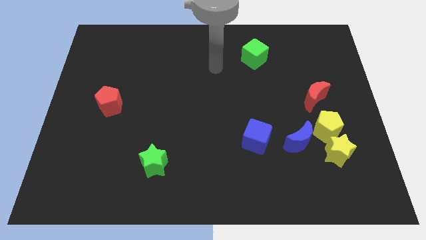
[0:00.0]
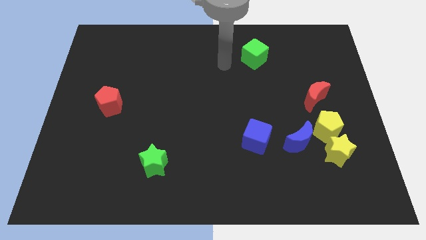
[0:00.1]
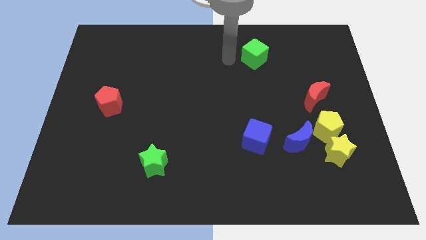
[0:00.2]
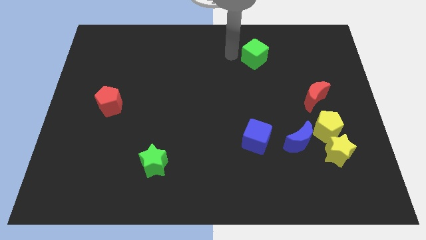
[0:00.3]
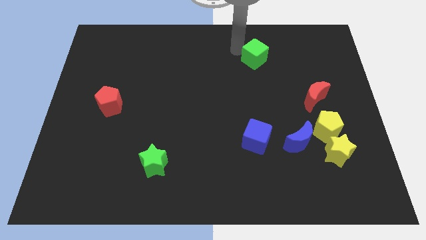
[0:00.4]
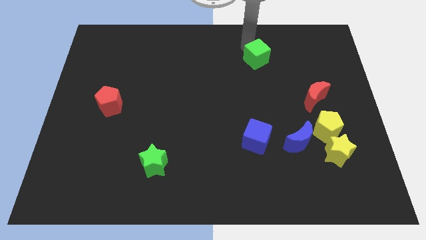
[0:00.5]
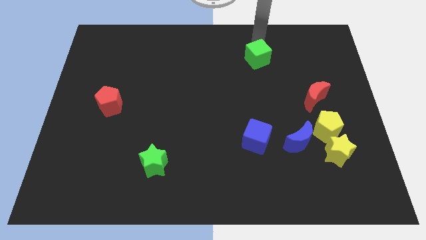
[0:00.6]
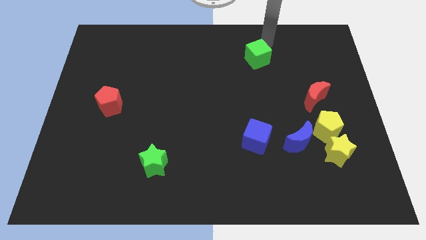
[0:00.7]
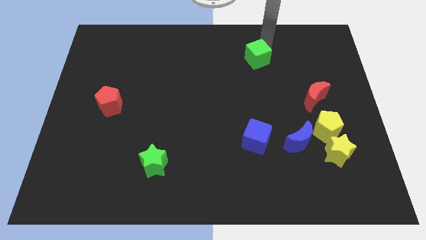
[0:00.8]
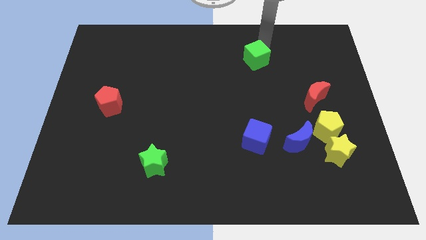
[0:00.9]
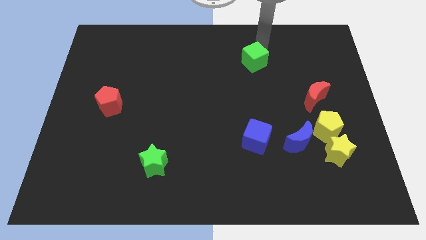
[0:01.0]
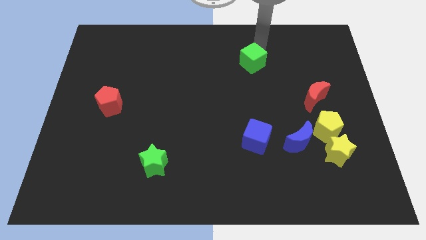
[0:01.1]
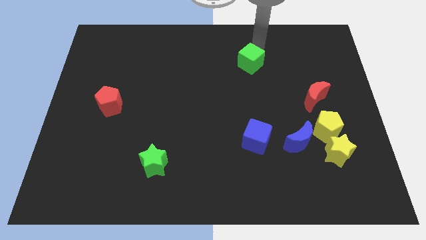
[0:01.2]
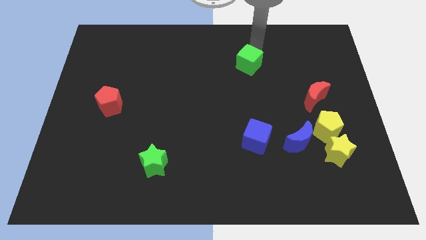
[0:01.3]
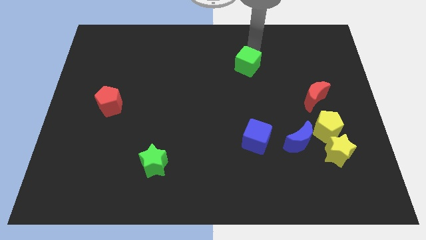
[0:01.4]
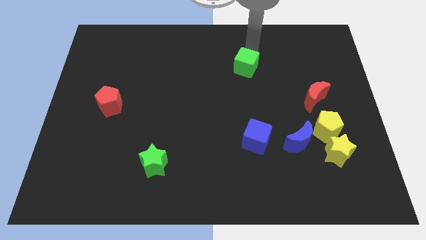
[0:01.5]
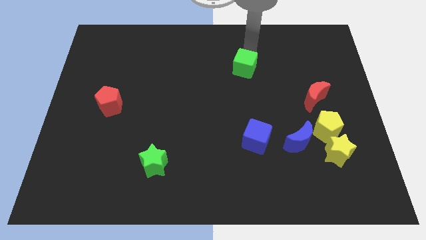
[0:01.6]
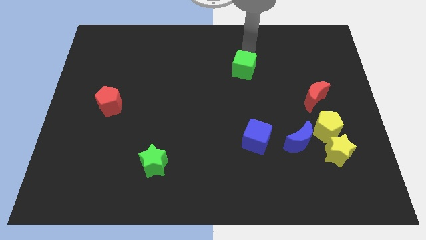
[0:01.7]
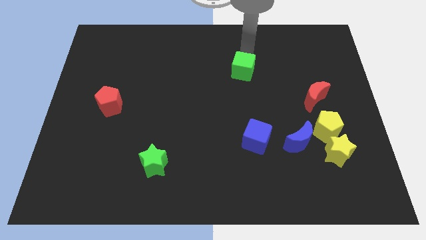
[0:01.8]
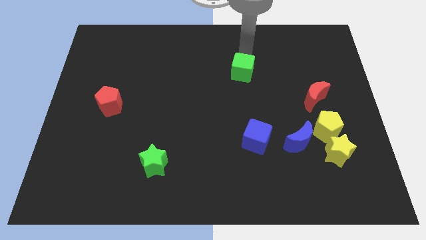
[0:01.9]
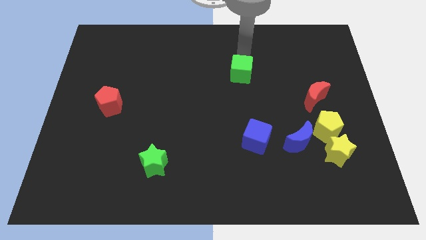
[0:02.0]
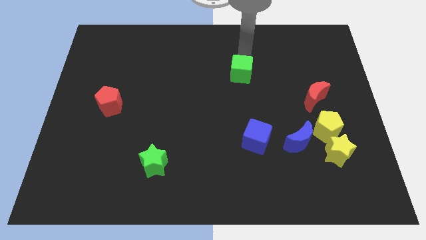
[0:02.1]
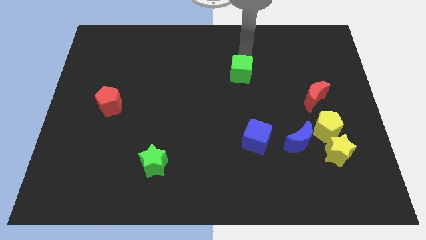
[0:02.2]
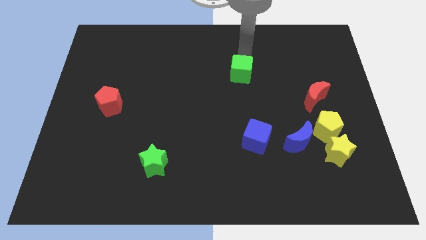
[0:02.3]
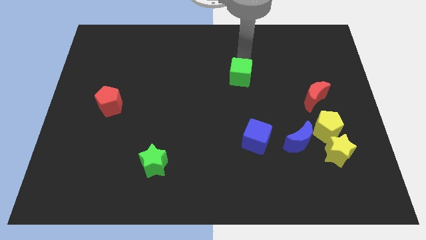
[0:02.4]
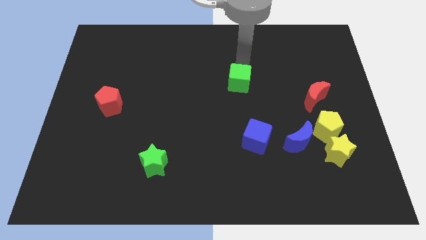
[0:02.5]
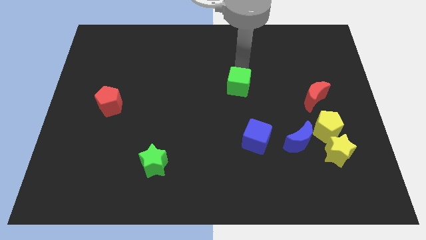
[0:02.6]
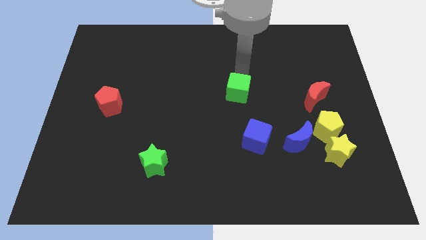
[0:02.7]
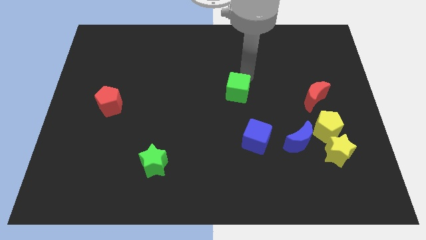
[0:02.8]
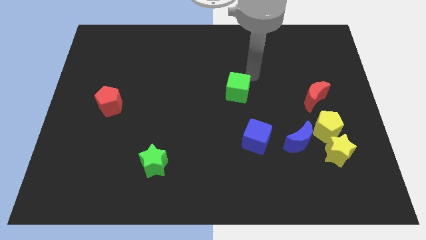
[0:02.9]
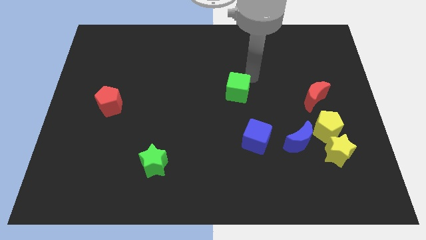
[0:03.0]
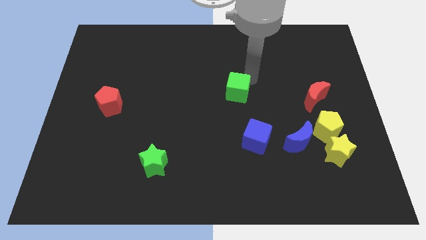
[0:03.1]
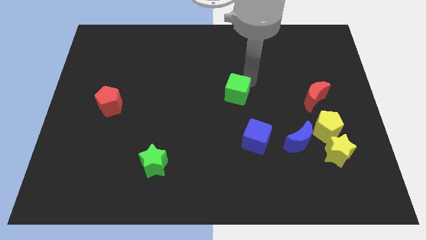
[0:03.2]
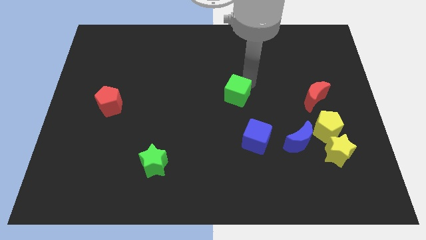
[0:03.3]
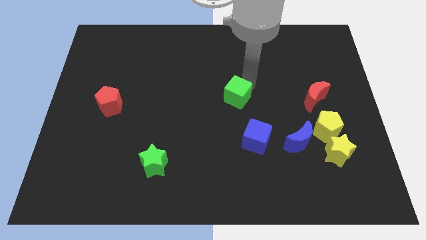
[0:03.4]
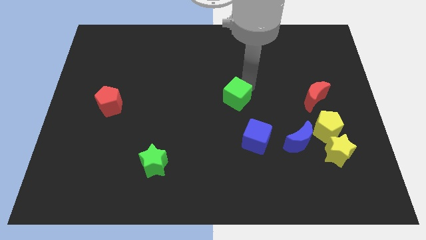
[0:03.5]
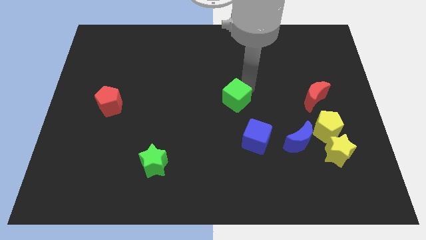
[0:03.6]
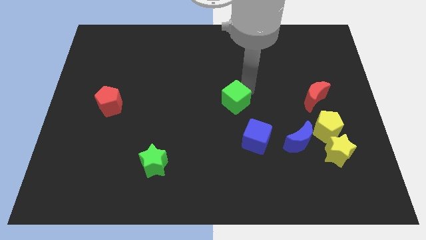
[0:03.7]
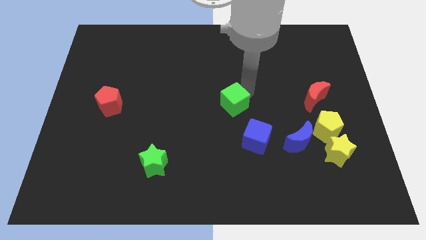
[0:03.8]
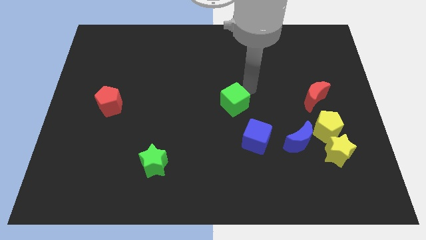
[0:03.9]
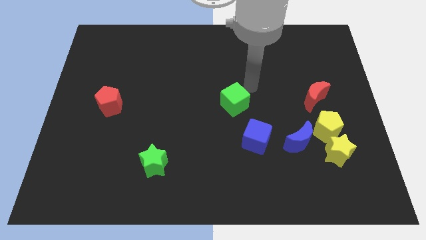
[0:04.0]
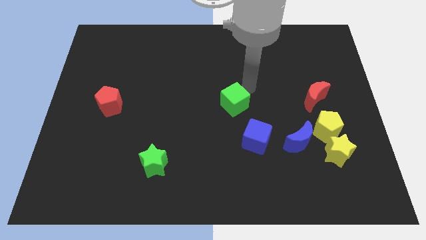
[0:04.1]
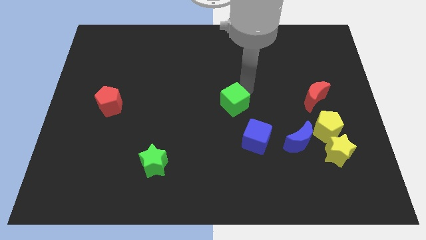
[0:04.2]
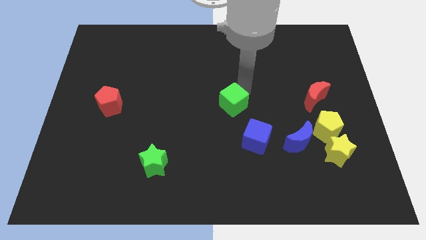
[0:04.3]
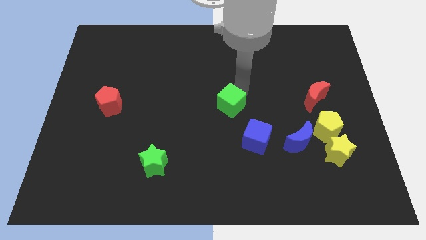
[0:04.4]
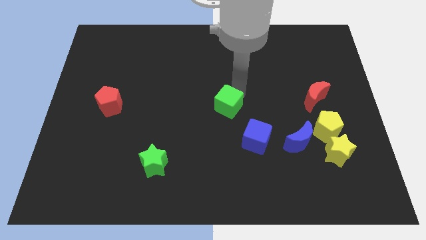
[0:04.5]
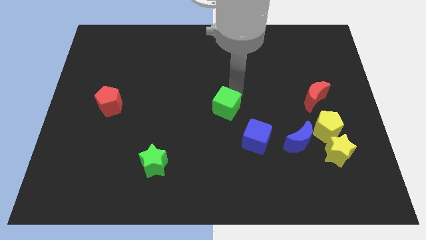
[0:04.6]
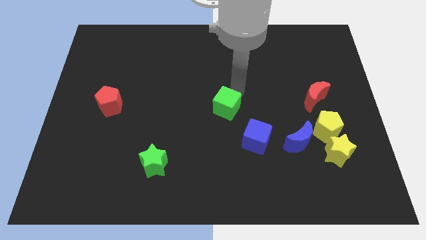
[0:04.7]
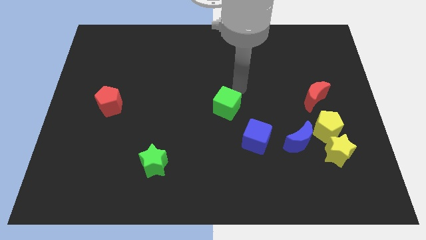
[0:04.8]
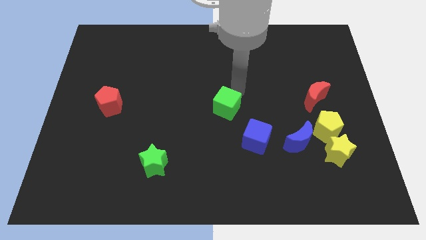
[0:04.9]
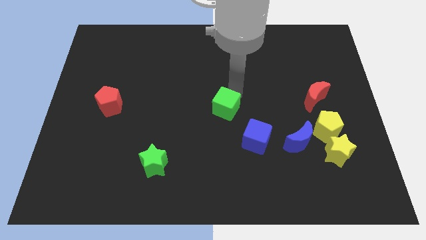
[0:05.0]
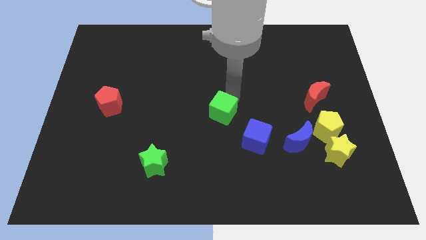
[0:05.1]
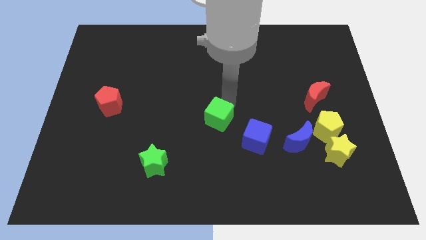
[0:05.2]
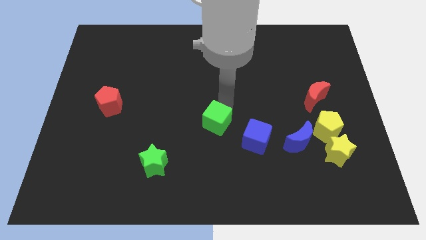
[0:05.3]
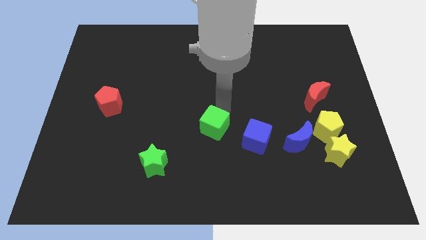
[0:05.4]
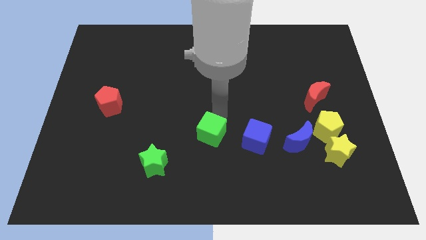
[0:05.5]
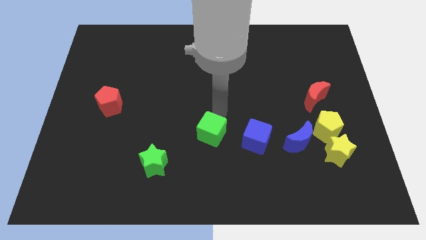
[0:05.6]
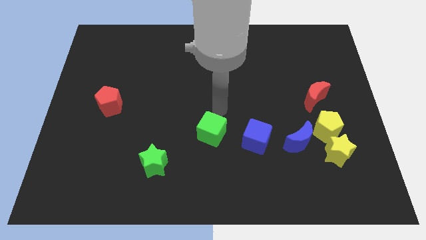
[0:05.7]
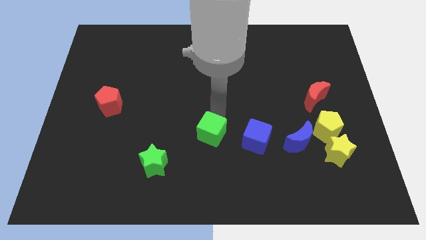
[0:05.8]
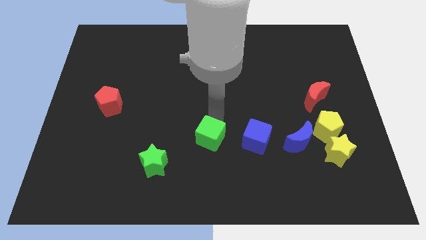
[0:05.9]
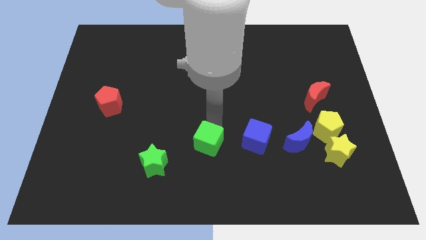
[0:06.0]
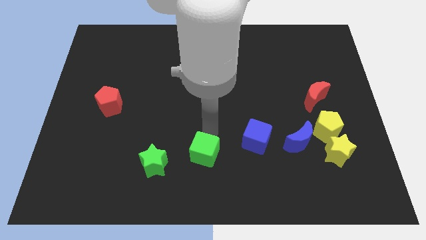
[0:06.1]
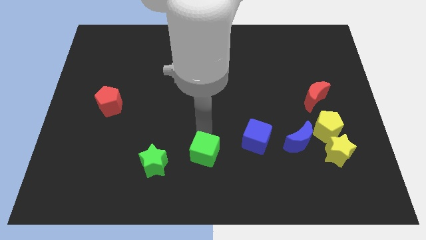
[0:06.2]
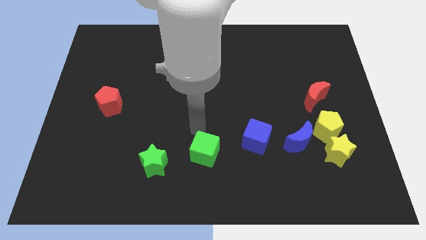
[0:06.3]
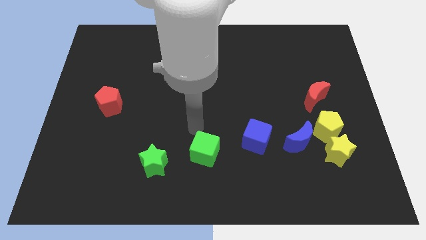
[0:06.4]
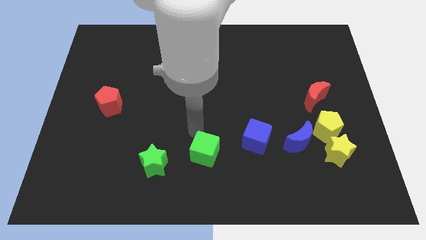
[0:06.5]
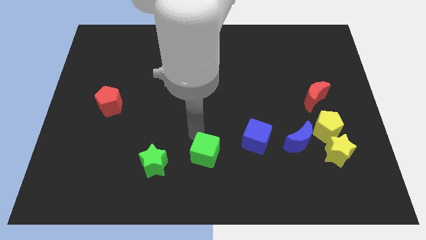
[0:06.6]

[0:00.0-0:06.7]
push the green cube to the bottom
